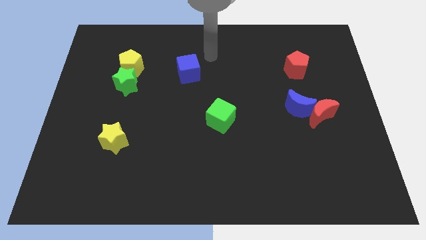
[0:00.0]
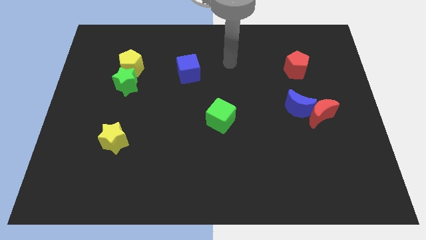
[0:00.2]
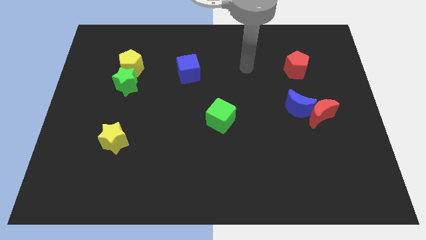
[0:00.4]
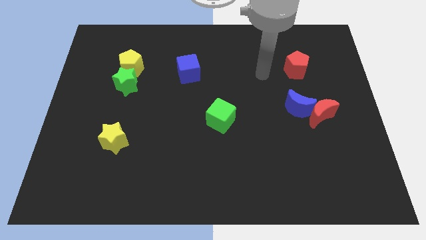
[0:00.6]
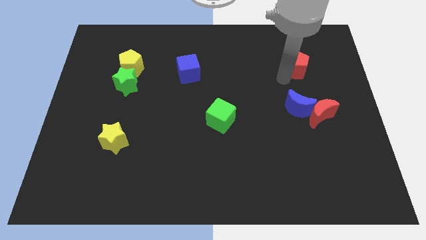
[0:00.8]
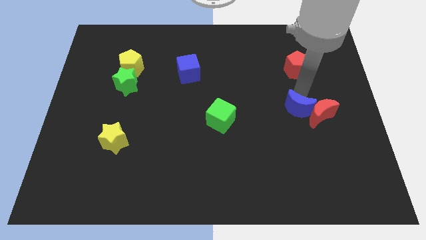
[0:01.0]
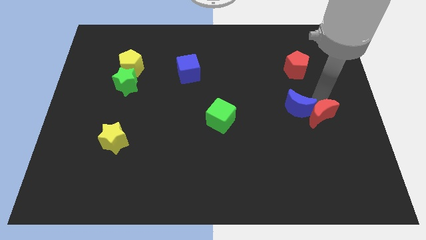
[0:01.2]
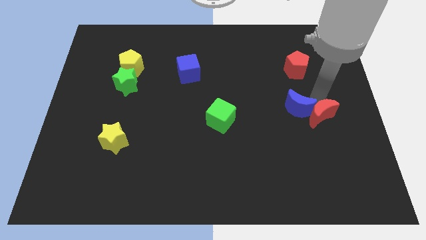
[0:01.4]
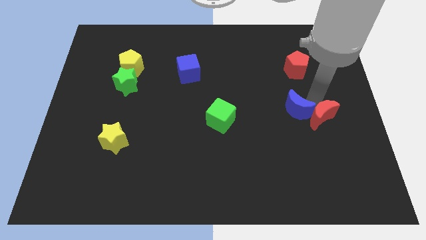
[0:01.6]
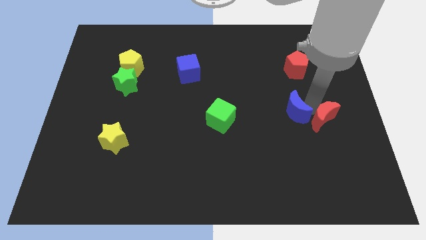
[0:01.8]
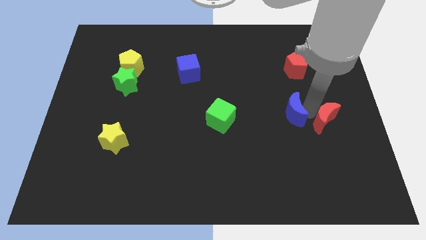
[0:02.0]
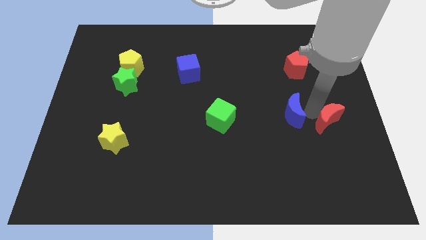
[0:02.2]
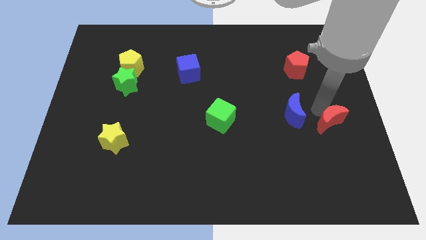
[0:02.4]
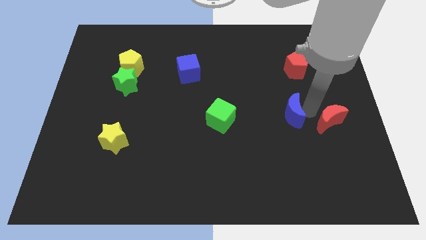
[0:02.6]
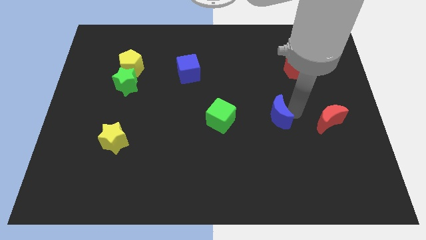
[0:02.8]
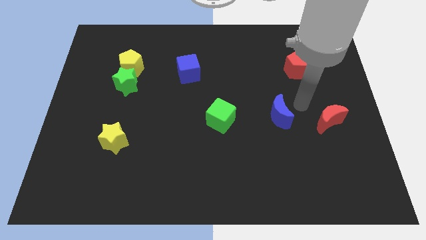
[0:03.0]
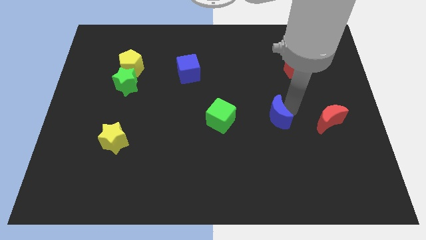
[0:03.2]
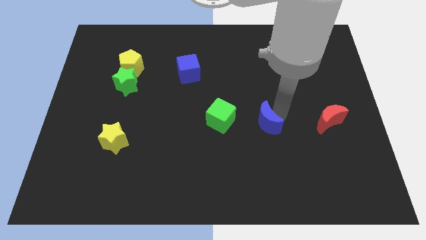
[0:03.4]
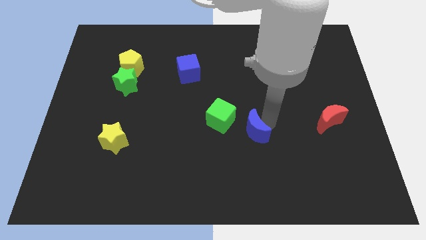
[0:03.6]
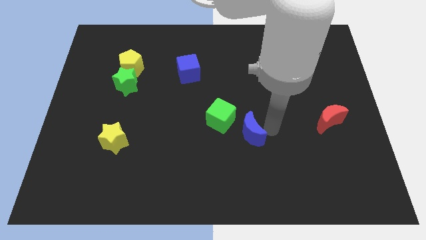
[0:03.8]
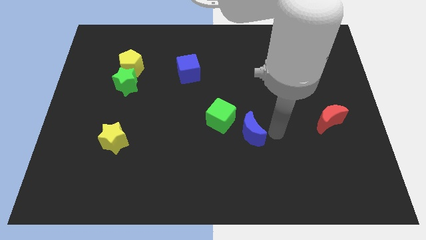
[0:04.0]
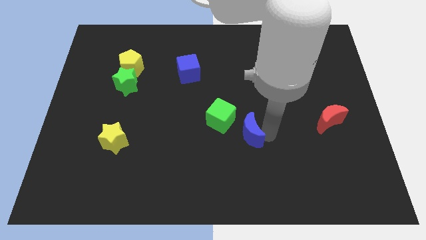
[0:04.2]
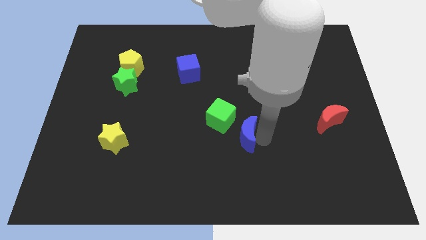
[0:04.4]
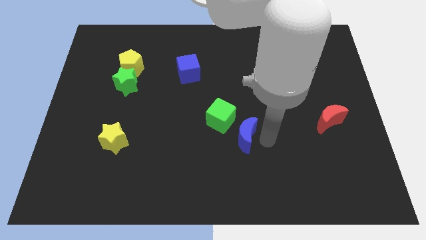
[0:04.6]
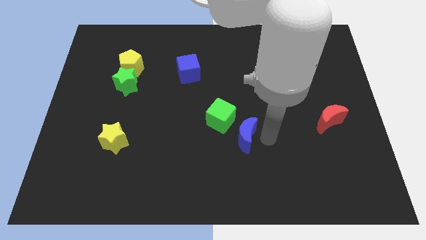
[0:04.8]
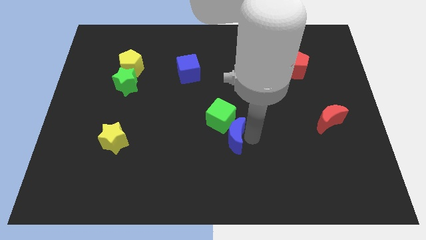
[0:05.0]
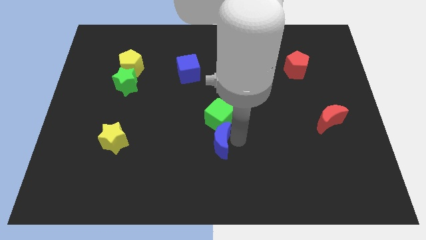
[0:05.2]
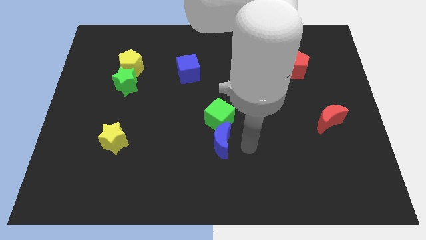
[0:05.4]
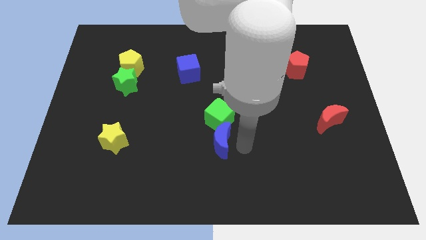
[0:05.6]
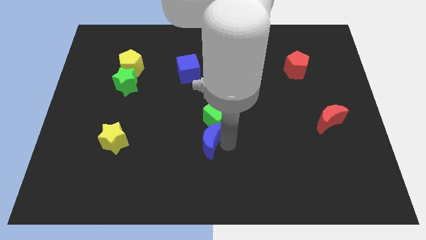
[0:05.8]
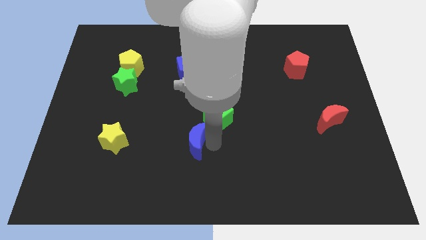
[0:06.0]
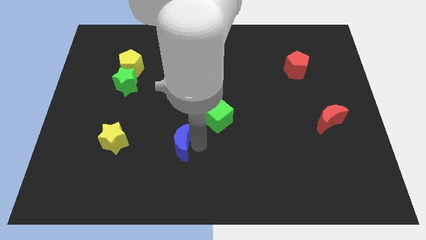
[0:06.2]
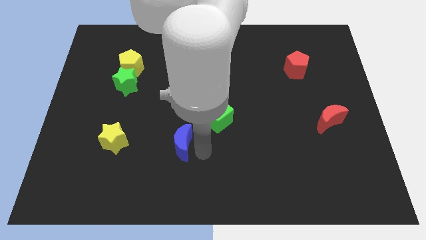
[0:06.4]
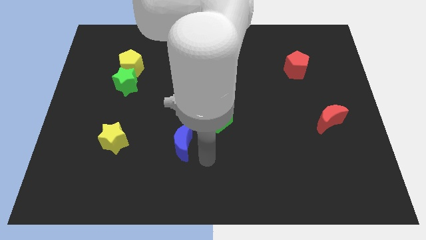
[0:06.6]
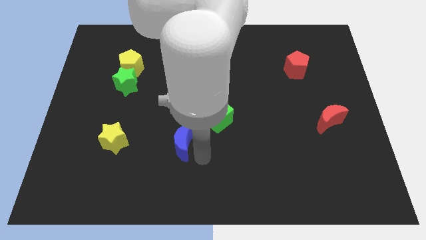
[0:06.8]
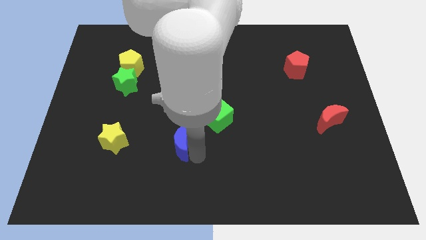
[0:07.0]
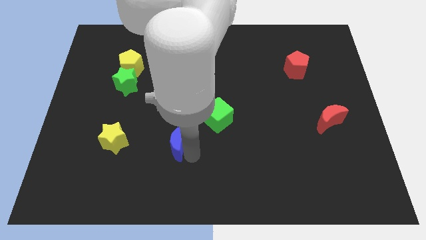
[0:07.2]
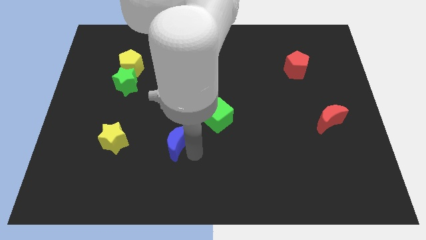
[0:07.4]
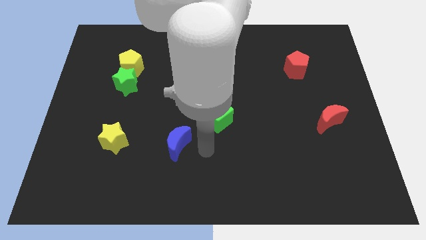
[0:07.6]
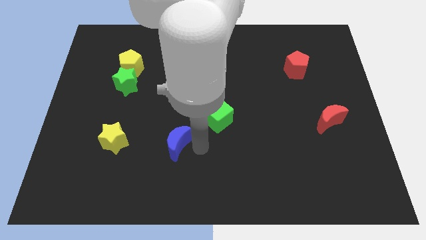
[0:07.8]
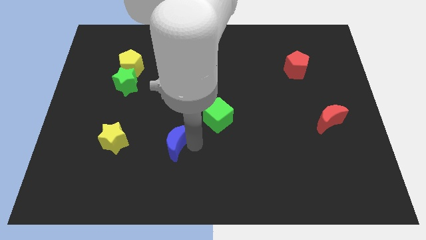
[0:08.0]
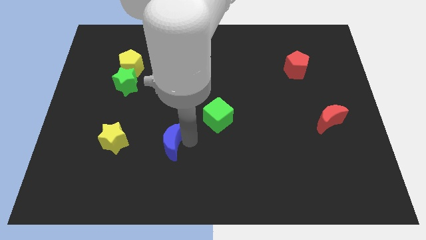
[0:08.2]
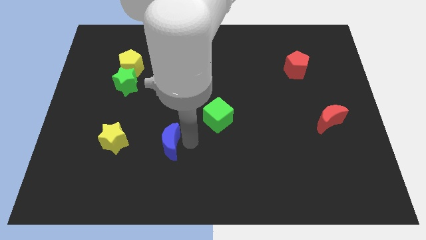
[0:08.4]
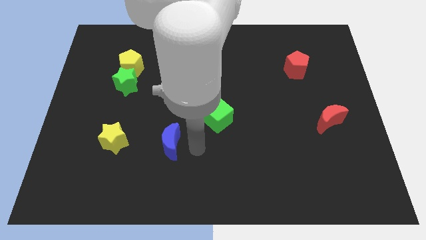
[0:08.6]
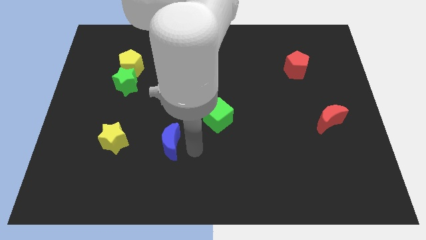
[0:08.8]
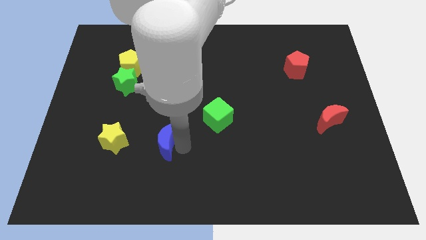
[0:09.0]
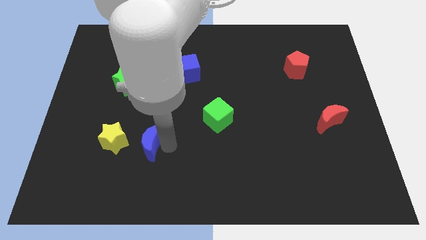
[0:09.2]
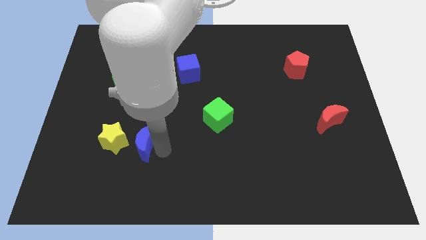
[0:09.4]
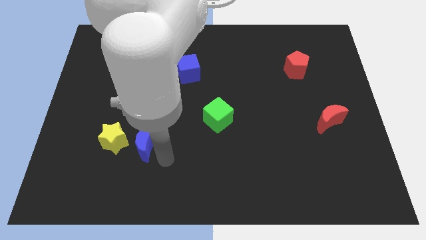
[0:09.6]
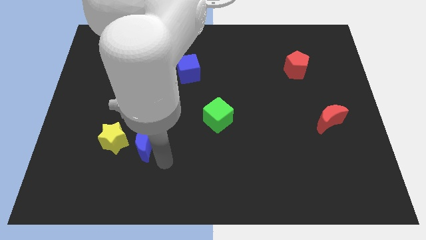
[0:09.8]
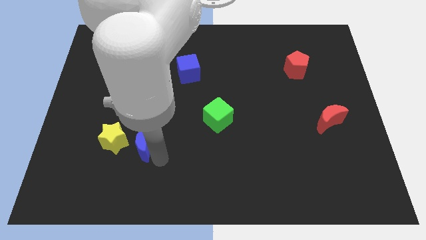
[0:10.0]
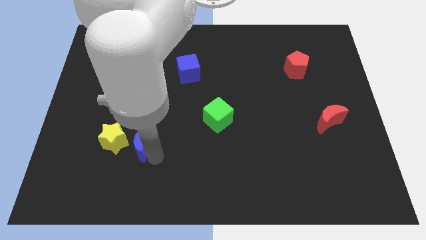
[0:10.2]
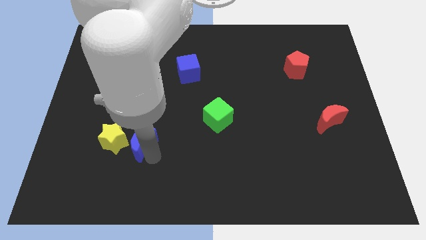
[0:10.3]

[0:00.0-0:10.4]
push the blue moon next to the yellow star

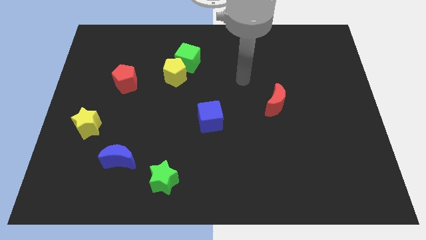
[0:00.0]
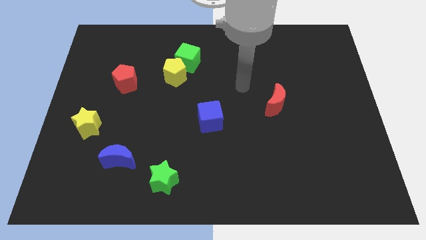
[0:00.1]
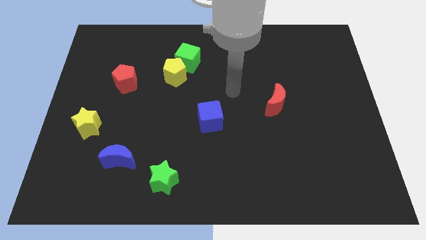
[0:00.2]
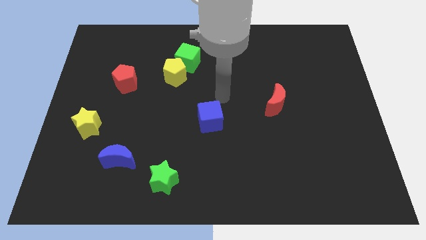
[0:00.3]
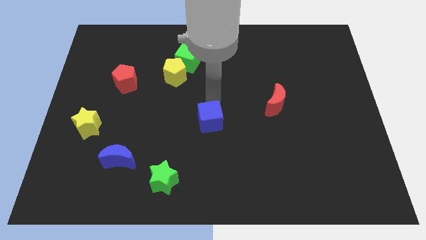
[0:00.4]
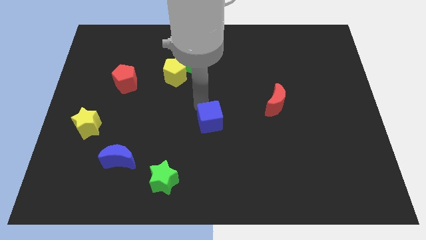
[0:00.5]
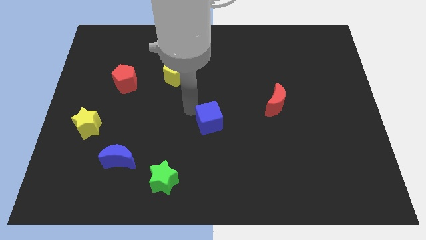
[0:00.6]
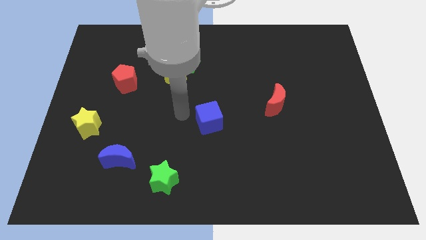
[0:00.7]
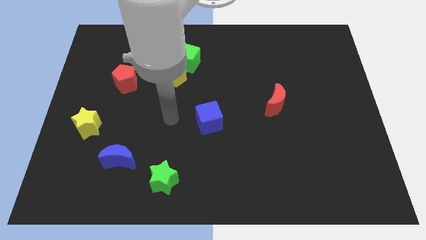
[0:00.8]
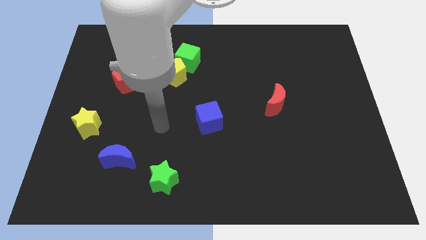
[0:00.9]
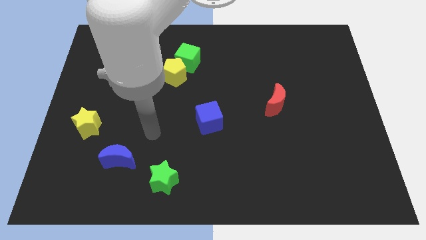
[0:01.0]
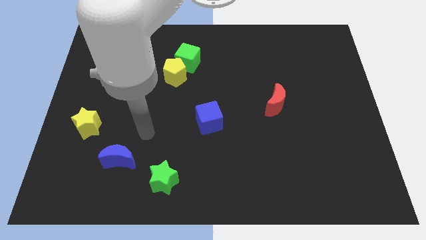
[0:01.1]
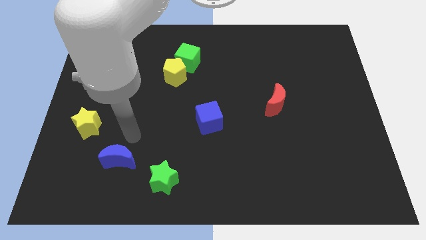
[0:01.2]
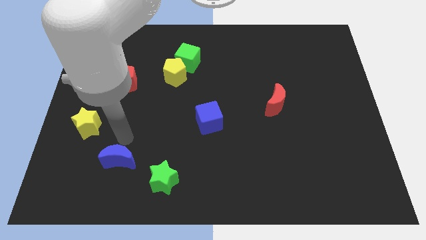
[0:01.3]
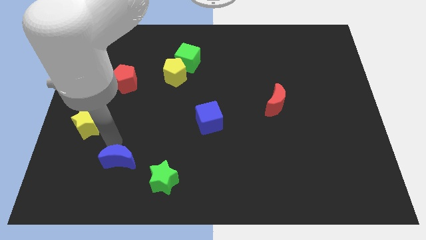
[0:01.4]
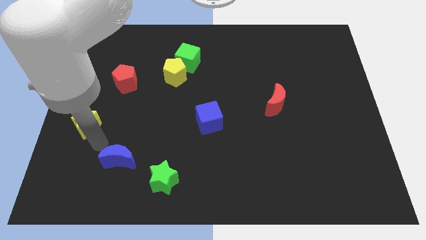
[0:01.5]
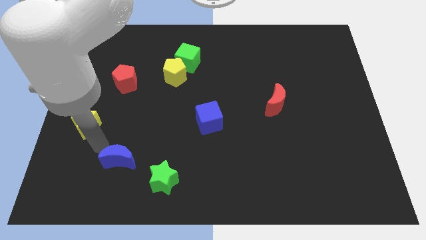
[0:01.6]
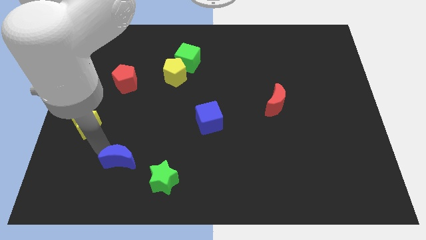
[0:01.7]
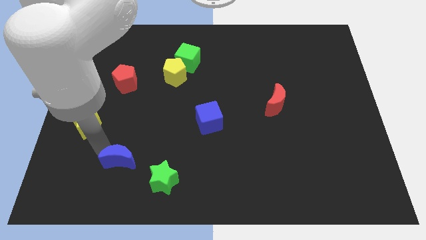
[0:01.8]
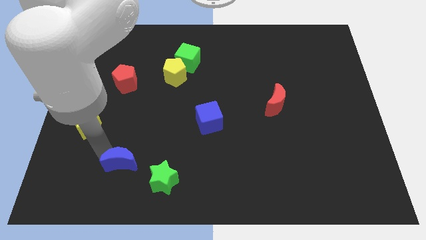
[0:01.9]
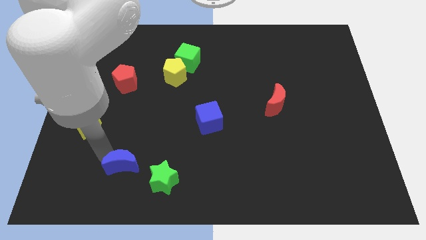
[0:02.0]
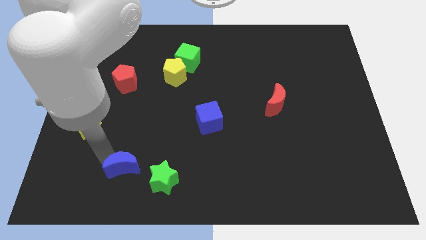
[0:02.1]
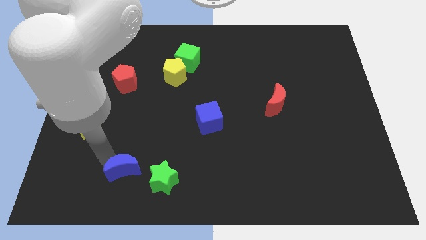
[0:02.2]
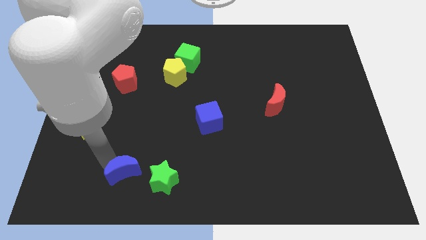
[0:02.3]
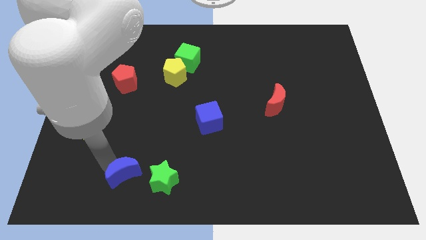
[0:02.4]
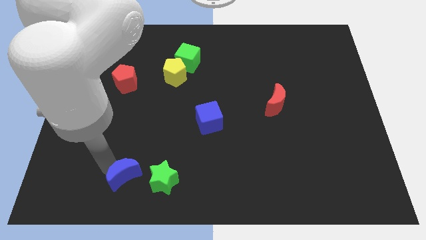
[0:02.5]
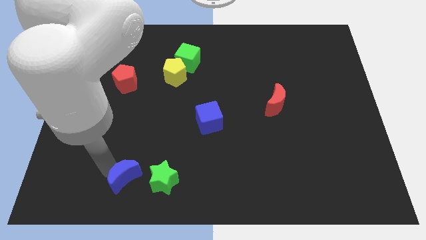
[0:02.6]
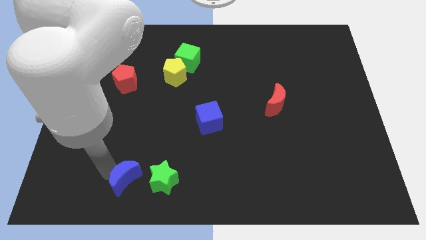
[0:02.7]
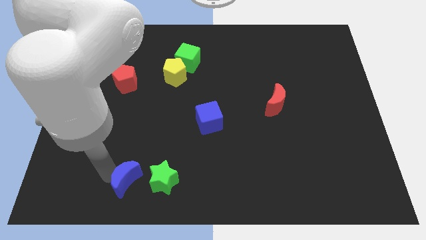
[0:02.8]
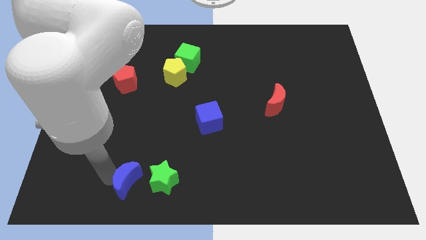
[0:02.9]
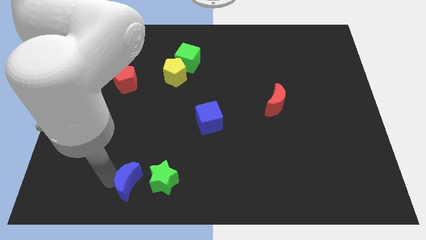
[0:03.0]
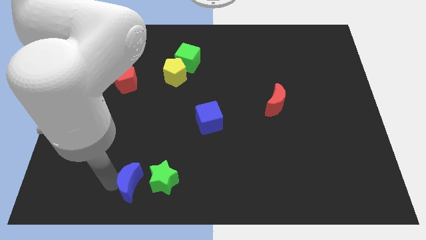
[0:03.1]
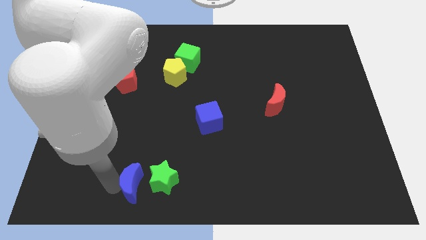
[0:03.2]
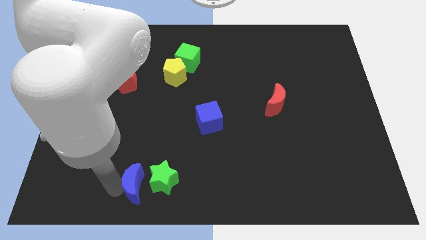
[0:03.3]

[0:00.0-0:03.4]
push the blue moon next to the green star
